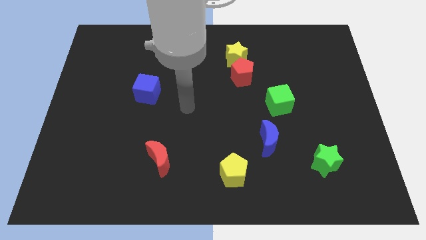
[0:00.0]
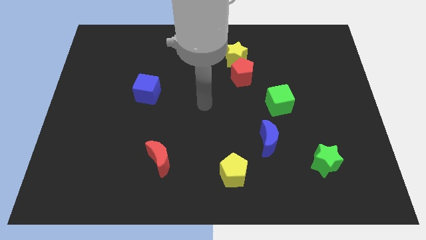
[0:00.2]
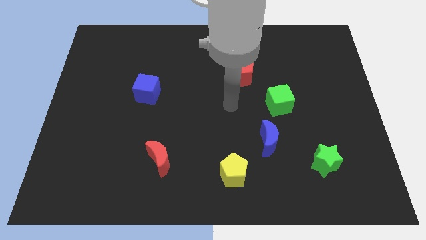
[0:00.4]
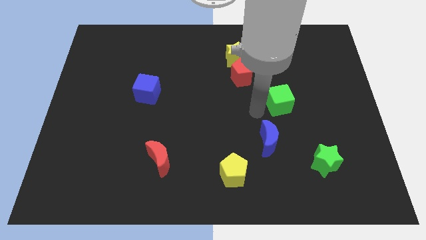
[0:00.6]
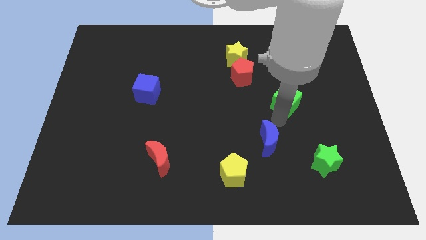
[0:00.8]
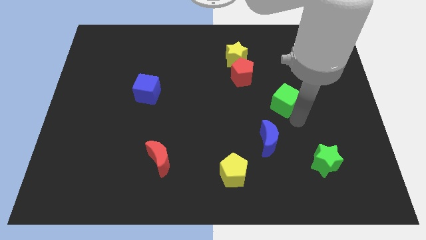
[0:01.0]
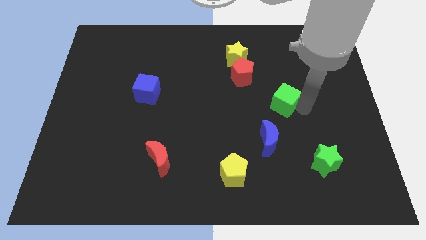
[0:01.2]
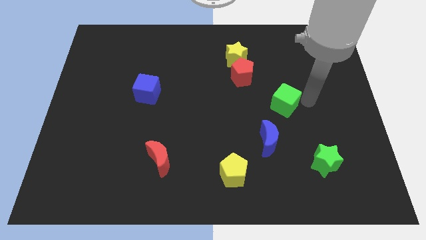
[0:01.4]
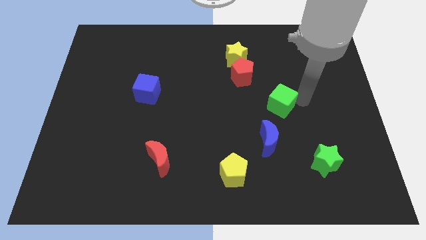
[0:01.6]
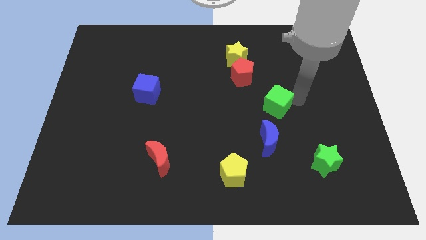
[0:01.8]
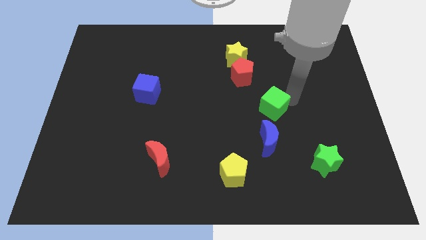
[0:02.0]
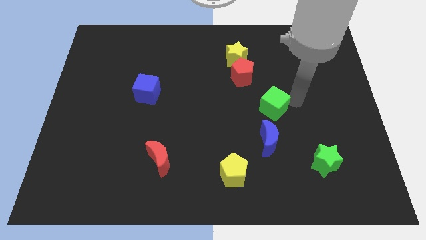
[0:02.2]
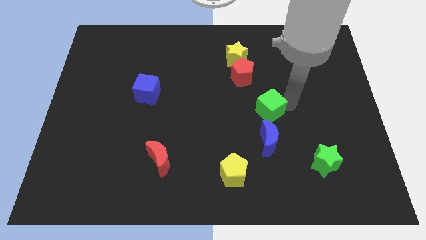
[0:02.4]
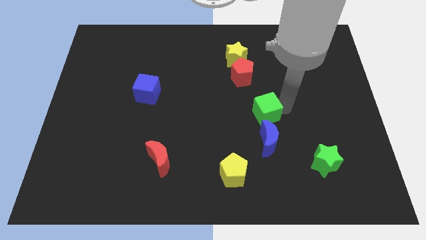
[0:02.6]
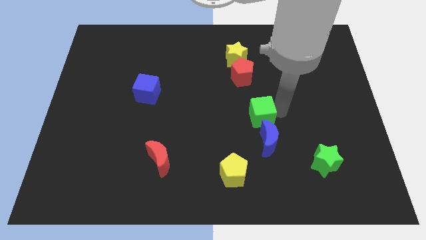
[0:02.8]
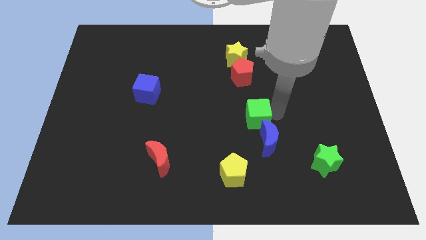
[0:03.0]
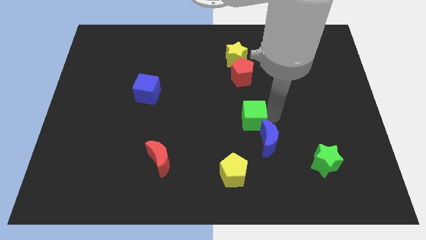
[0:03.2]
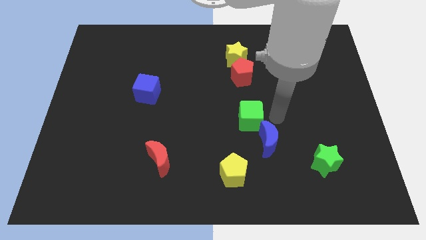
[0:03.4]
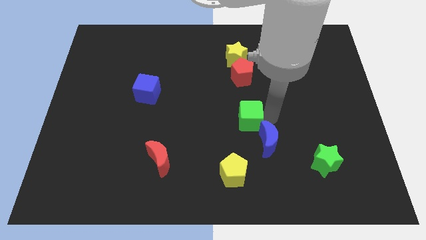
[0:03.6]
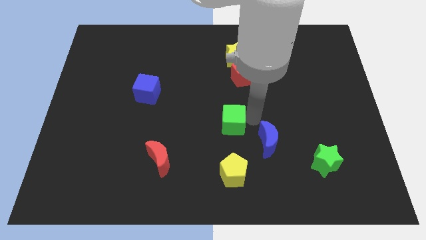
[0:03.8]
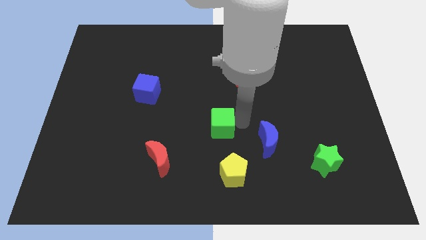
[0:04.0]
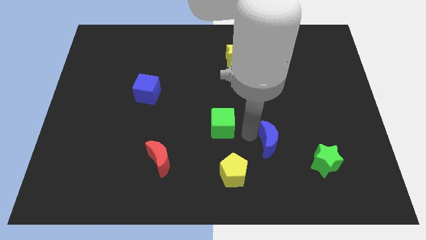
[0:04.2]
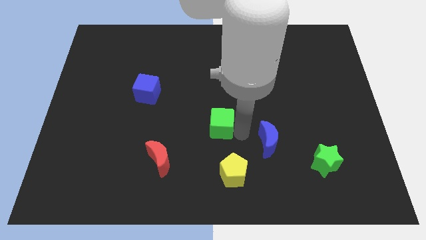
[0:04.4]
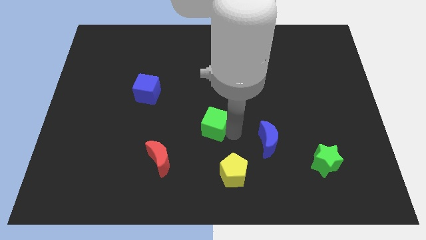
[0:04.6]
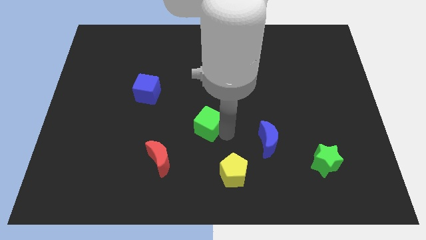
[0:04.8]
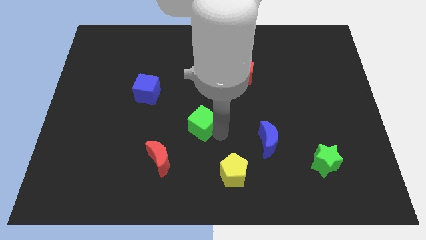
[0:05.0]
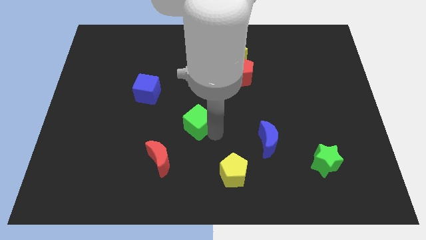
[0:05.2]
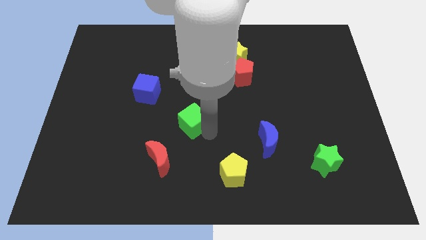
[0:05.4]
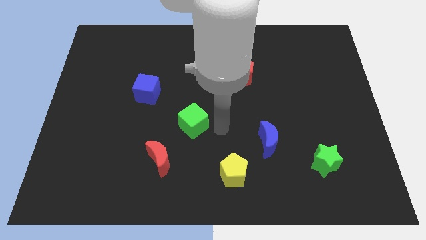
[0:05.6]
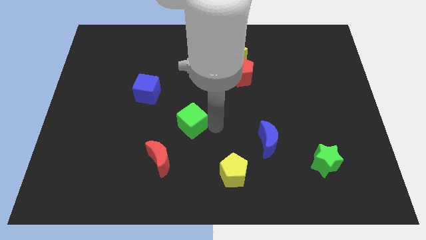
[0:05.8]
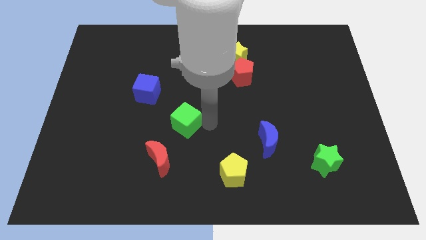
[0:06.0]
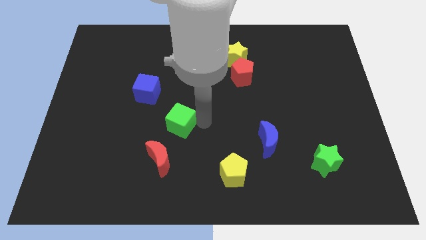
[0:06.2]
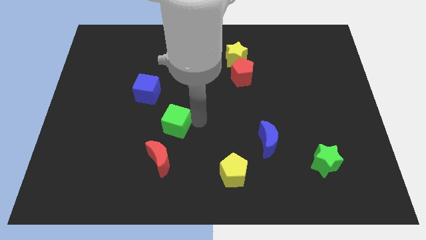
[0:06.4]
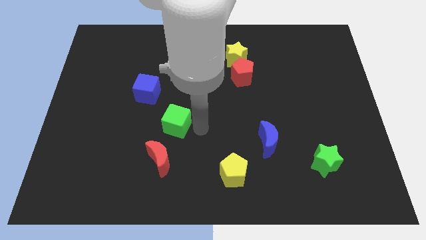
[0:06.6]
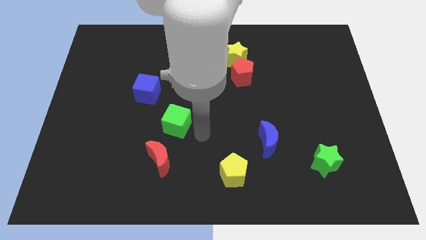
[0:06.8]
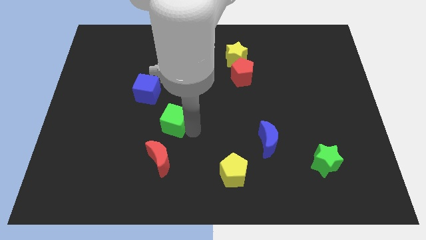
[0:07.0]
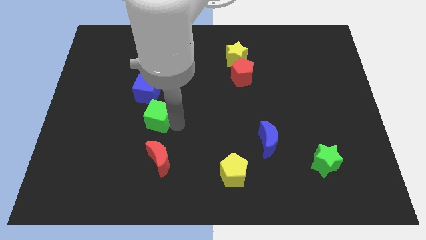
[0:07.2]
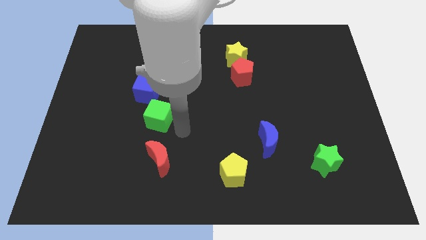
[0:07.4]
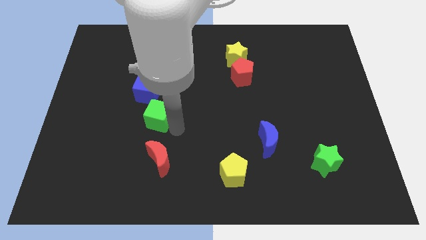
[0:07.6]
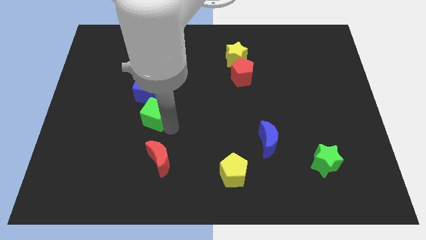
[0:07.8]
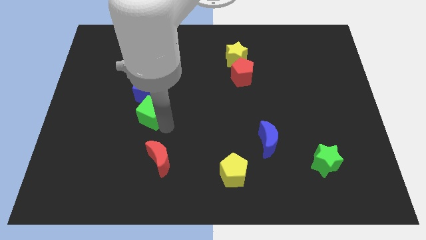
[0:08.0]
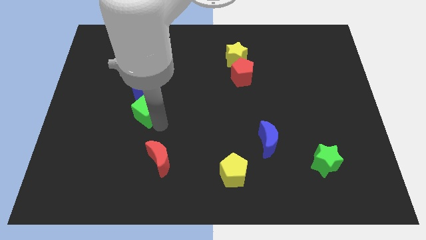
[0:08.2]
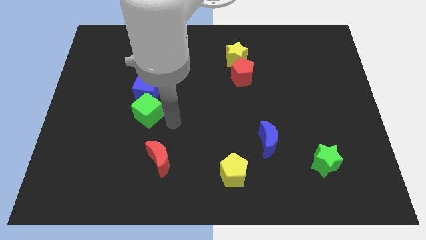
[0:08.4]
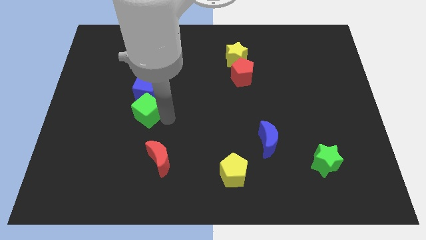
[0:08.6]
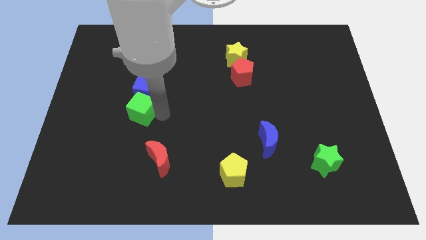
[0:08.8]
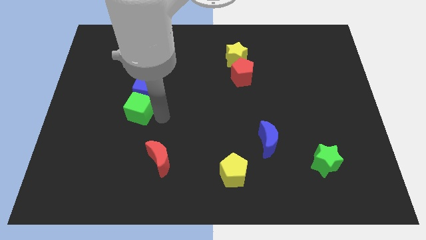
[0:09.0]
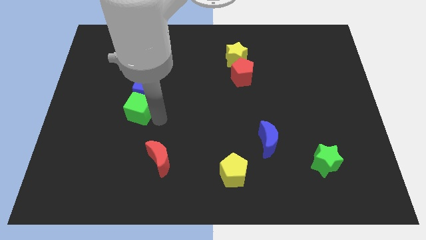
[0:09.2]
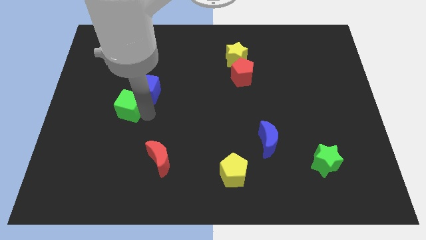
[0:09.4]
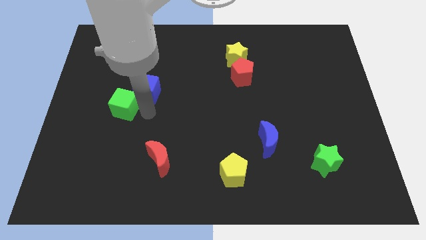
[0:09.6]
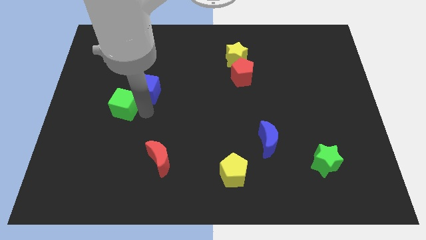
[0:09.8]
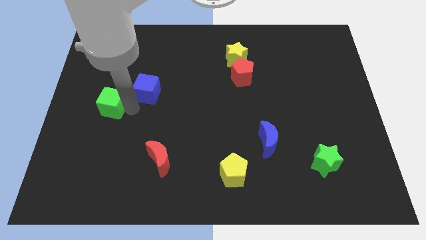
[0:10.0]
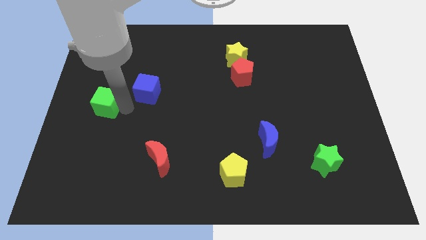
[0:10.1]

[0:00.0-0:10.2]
move the green cube to the left side

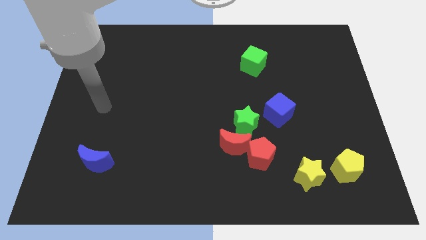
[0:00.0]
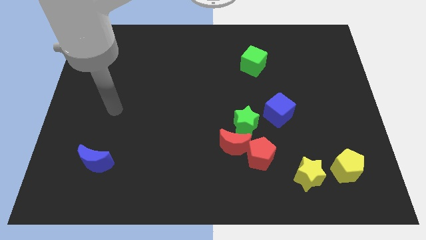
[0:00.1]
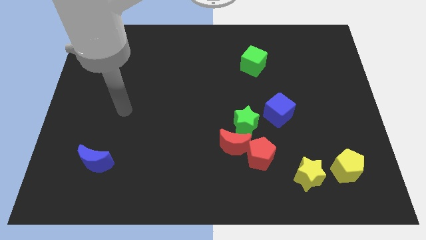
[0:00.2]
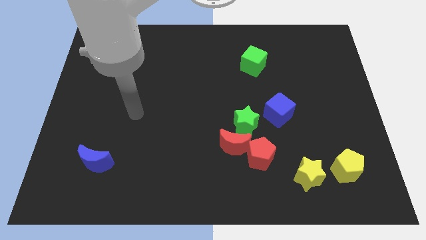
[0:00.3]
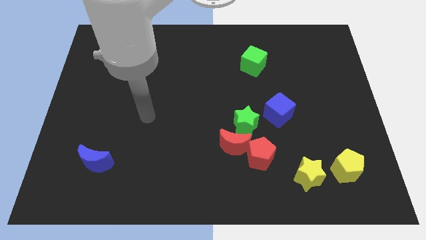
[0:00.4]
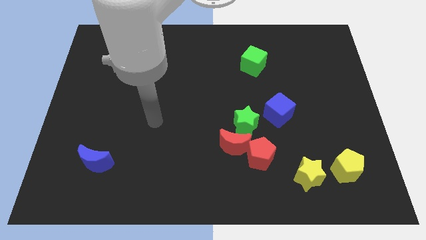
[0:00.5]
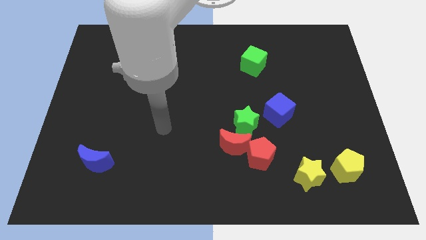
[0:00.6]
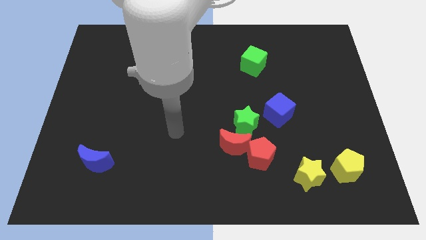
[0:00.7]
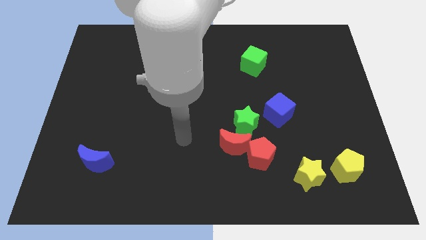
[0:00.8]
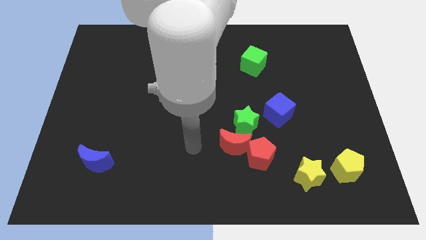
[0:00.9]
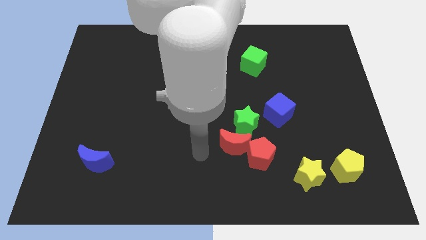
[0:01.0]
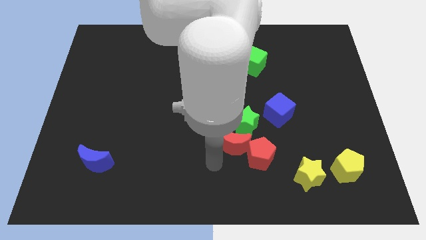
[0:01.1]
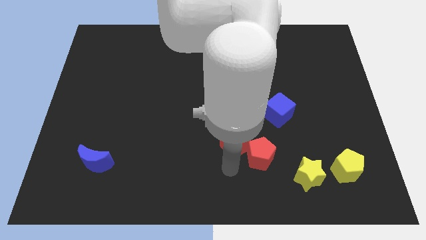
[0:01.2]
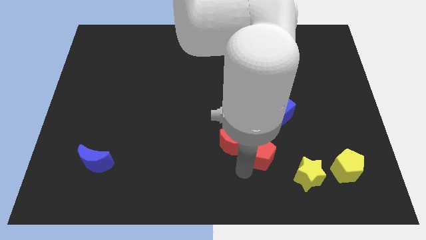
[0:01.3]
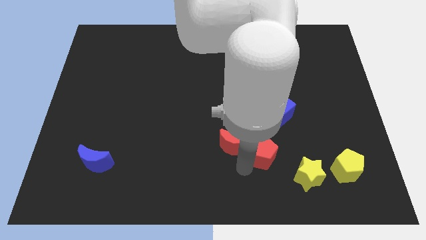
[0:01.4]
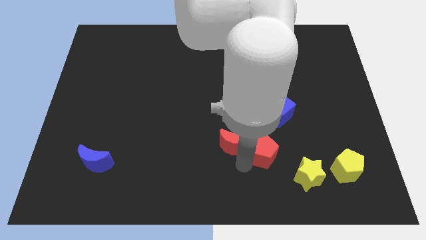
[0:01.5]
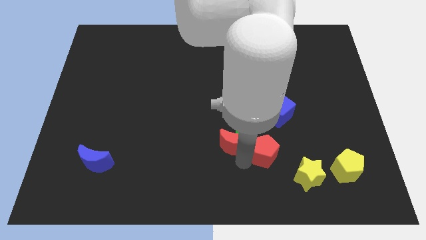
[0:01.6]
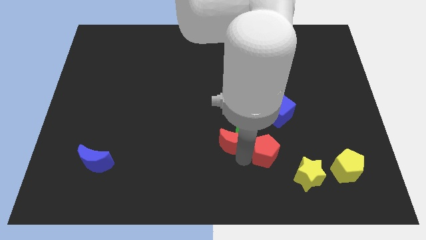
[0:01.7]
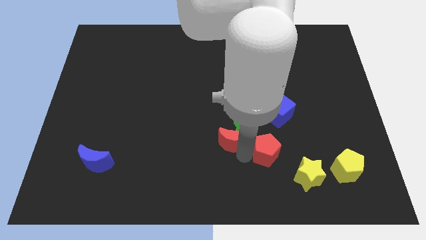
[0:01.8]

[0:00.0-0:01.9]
move the red moon to the center
